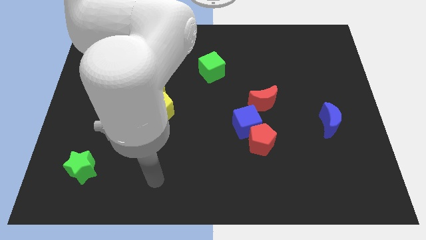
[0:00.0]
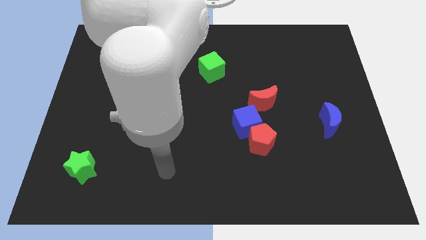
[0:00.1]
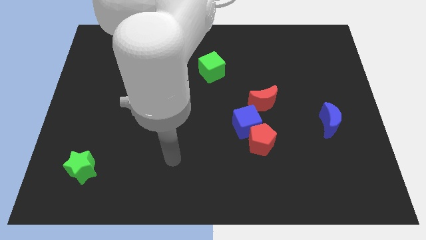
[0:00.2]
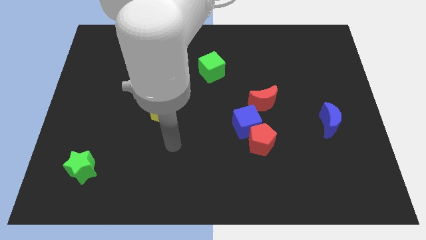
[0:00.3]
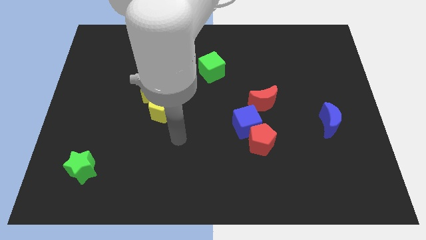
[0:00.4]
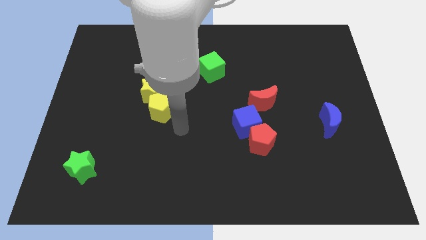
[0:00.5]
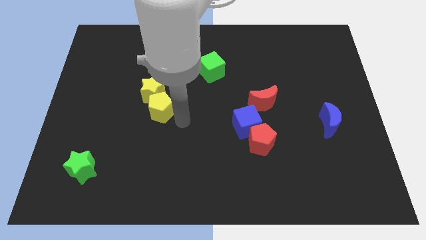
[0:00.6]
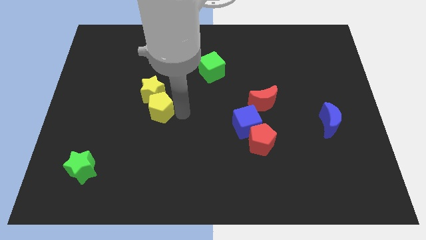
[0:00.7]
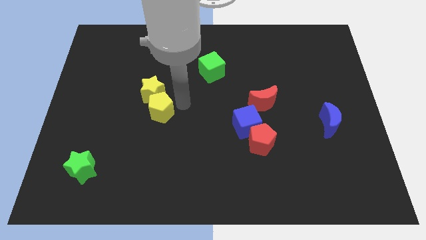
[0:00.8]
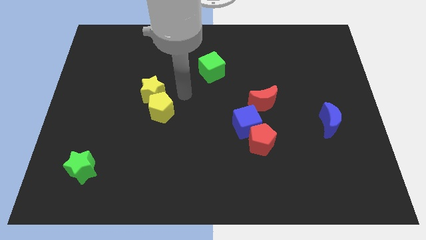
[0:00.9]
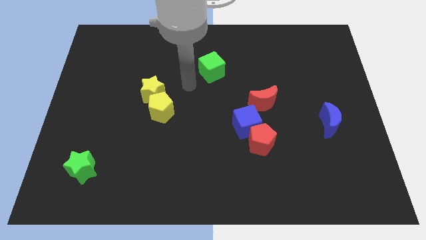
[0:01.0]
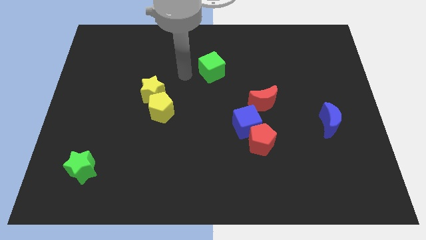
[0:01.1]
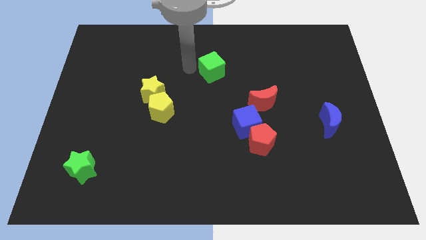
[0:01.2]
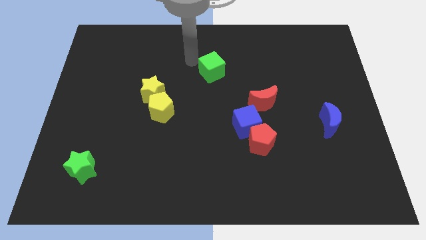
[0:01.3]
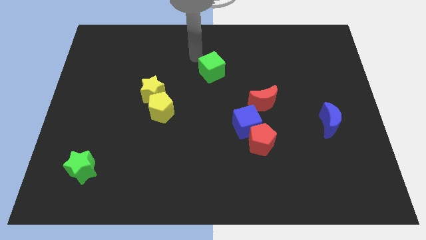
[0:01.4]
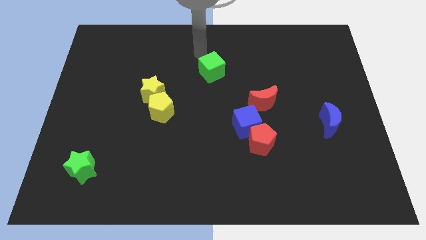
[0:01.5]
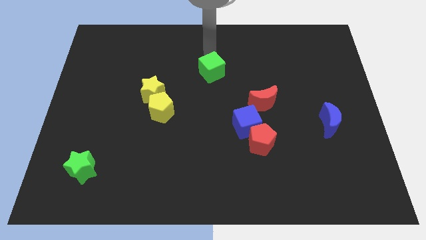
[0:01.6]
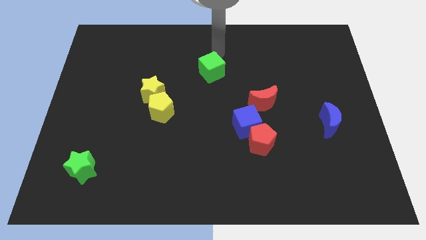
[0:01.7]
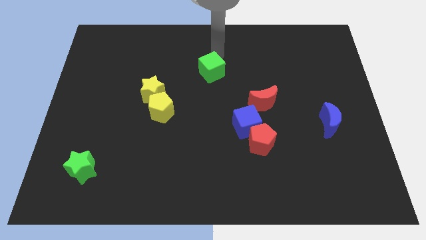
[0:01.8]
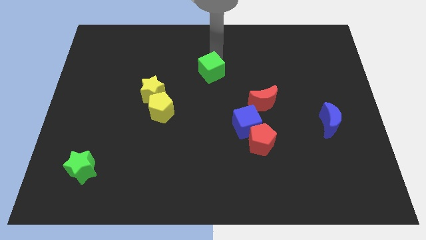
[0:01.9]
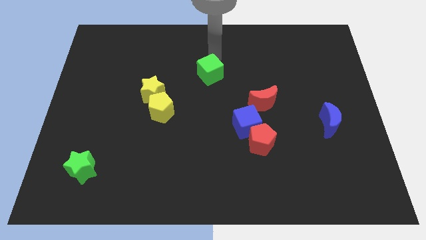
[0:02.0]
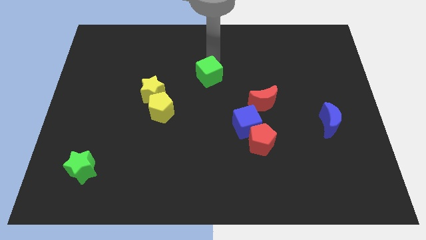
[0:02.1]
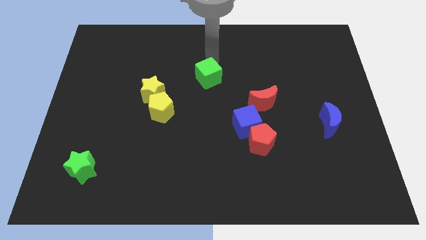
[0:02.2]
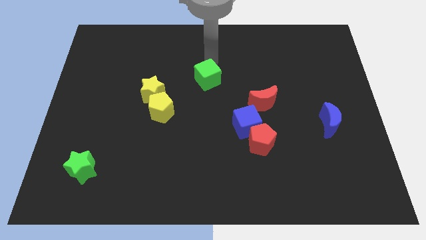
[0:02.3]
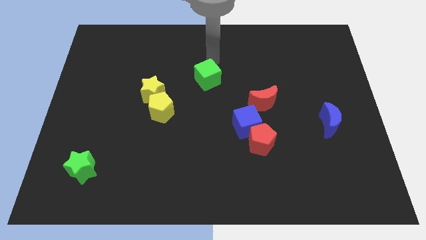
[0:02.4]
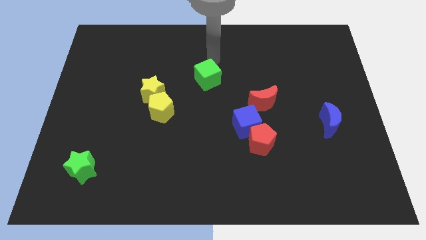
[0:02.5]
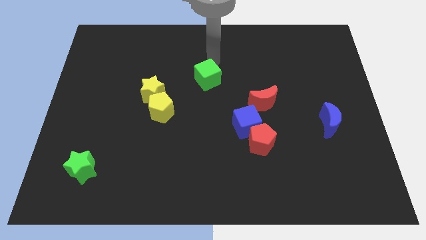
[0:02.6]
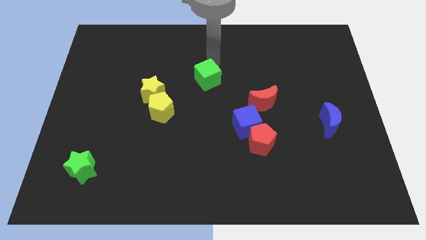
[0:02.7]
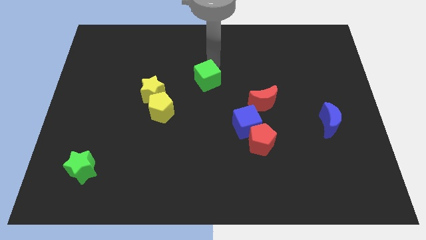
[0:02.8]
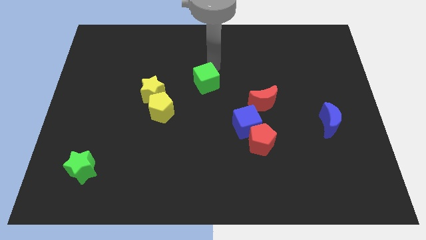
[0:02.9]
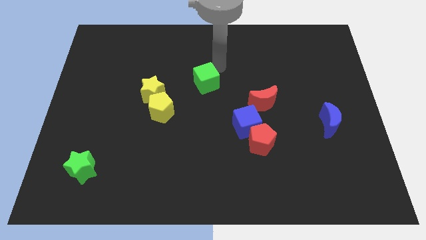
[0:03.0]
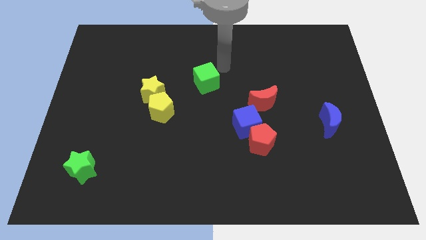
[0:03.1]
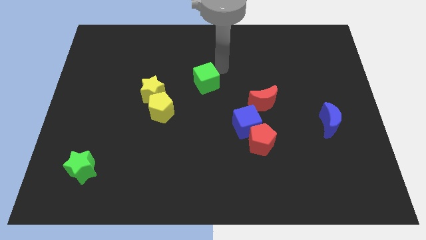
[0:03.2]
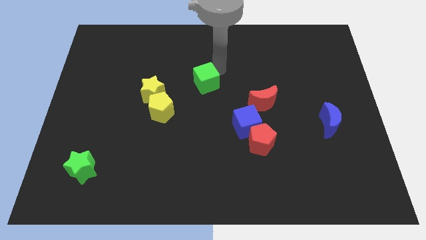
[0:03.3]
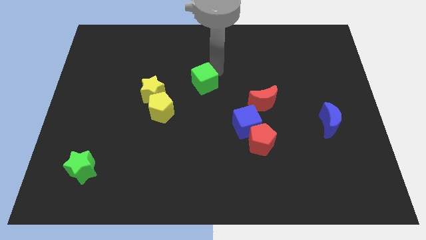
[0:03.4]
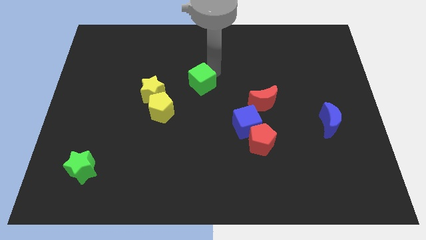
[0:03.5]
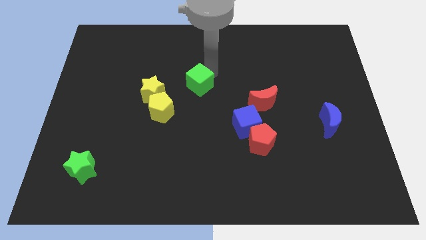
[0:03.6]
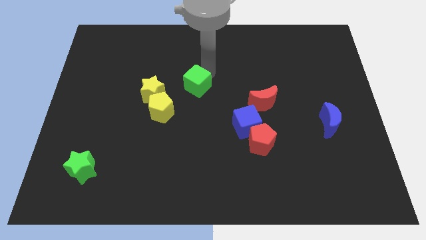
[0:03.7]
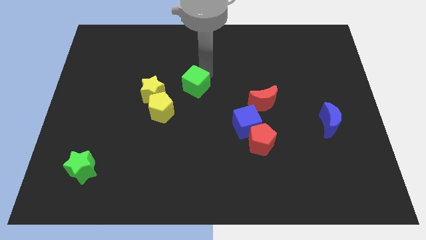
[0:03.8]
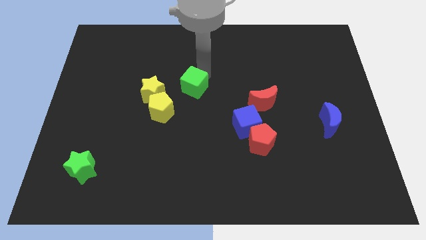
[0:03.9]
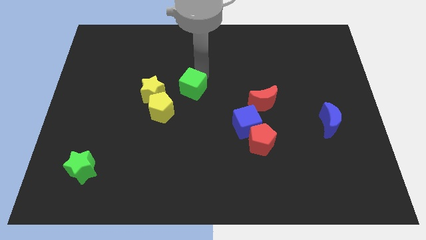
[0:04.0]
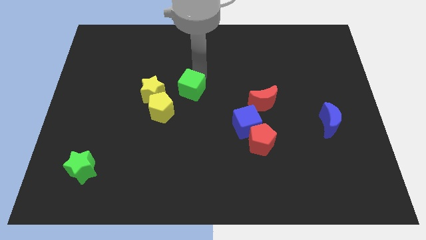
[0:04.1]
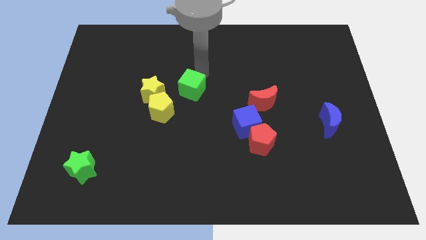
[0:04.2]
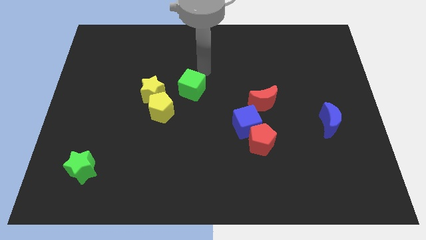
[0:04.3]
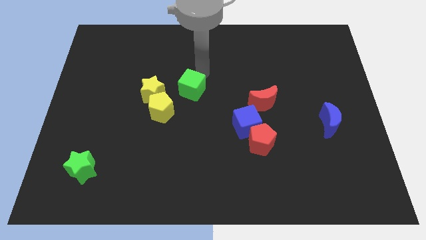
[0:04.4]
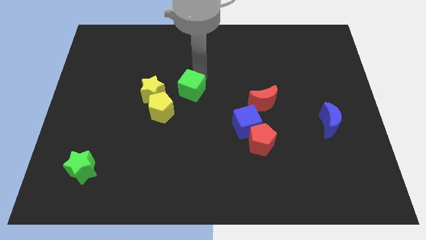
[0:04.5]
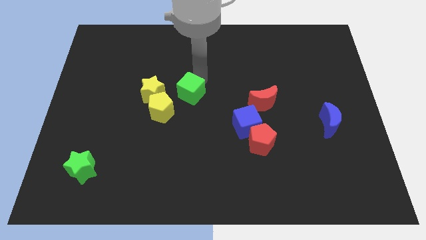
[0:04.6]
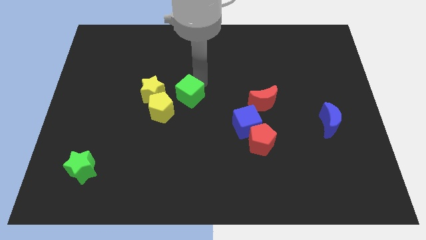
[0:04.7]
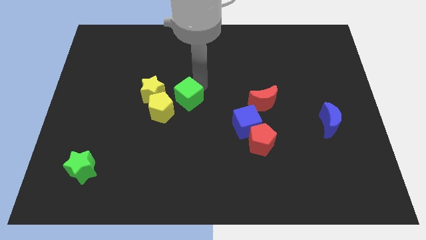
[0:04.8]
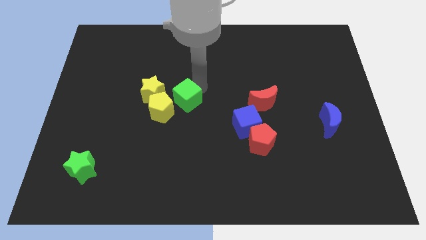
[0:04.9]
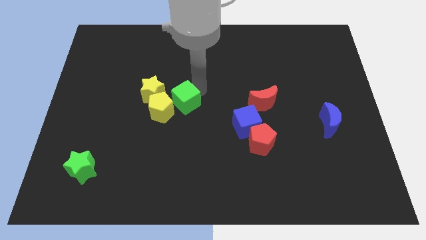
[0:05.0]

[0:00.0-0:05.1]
push the green cube next to the yellow pentagon
